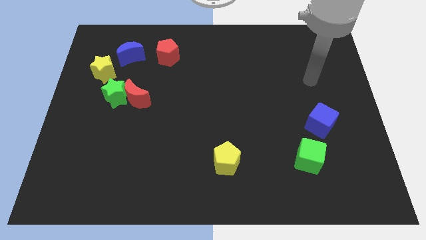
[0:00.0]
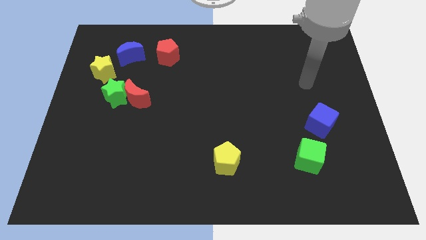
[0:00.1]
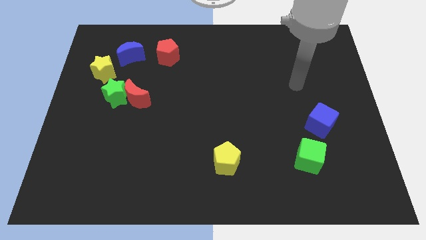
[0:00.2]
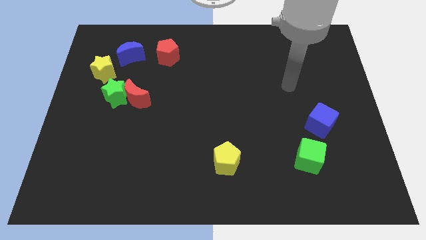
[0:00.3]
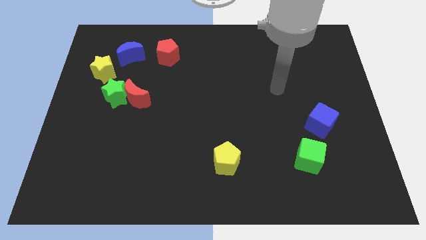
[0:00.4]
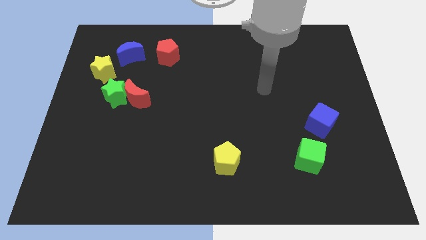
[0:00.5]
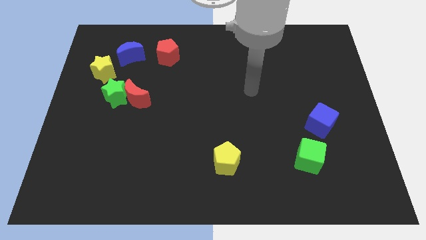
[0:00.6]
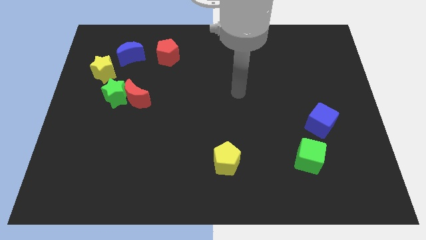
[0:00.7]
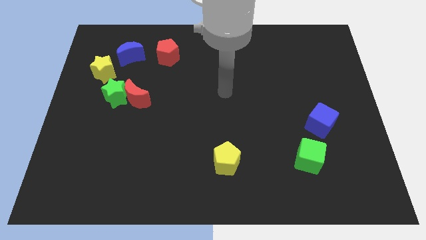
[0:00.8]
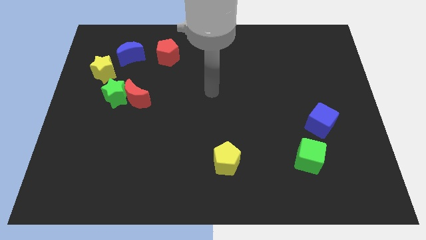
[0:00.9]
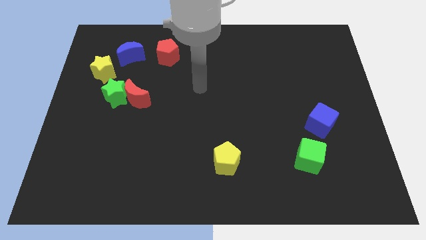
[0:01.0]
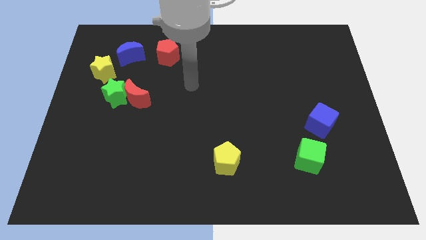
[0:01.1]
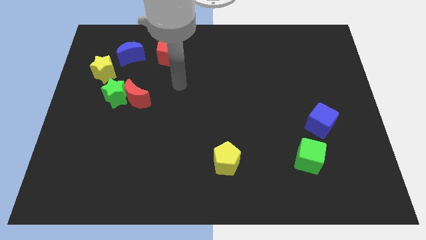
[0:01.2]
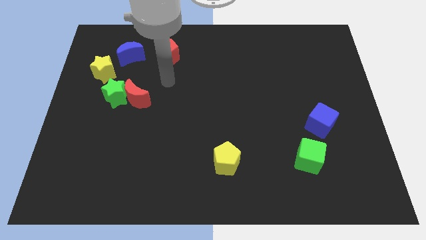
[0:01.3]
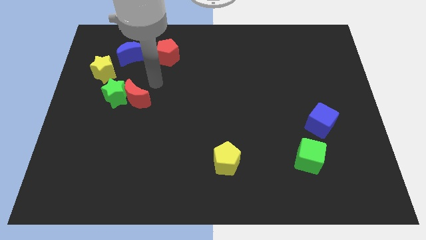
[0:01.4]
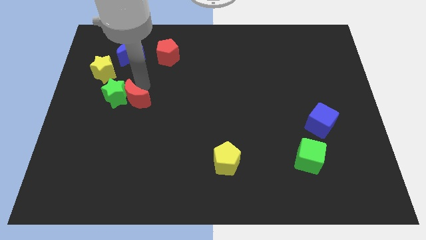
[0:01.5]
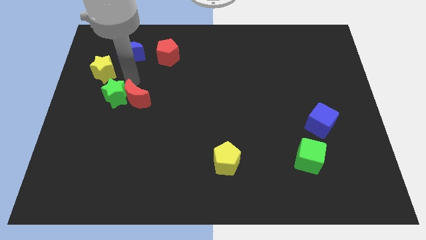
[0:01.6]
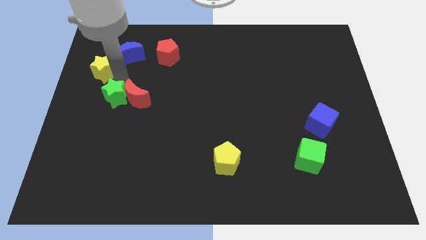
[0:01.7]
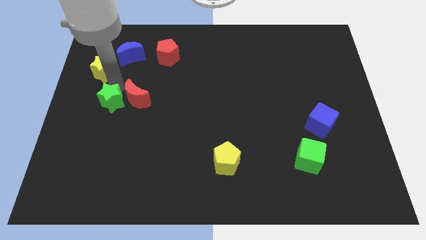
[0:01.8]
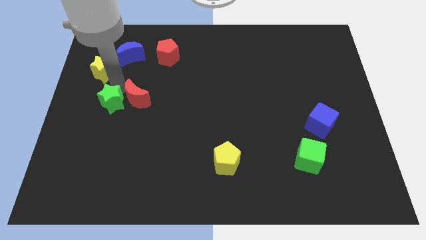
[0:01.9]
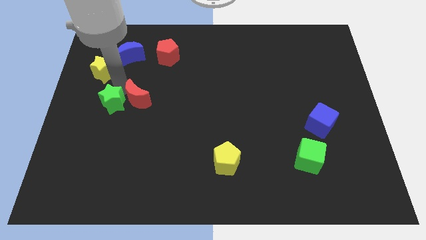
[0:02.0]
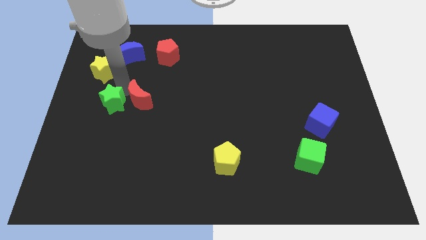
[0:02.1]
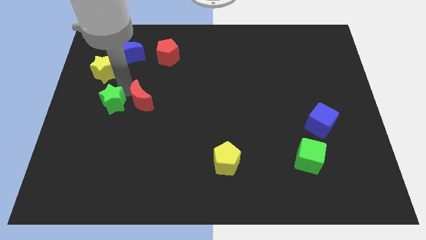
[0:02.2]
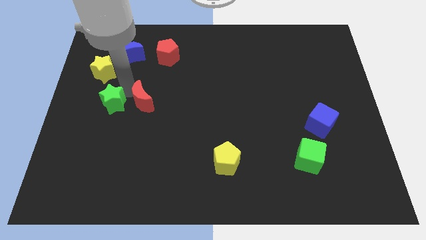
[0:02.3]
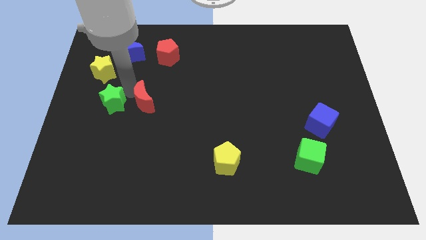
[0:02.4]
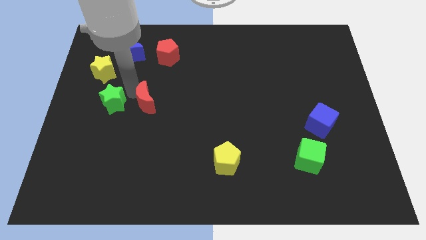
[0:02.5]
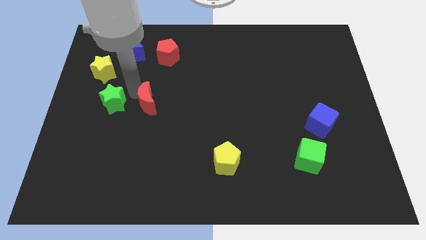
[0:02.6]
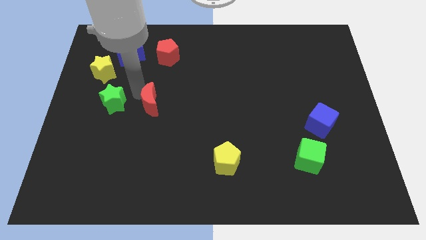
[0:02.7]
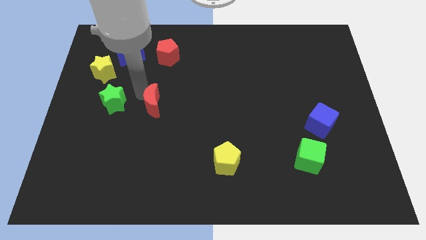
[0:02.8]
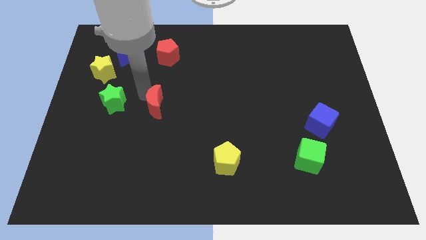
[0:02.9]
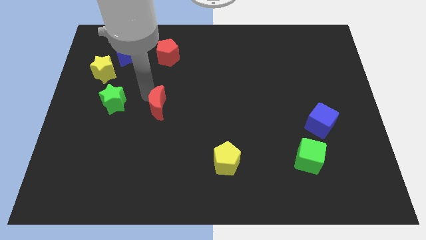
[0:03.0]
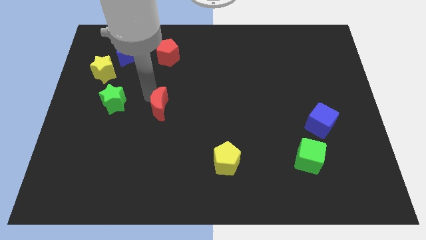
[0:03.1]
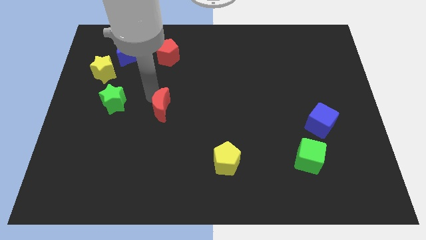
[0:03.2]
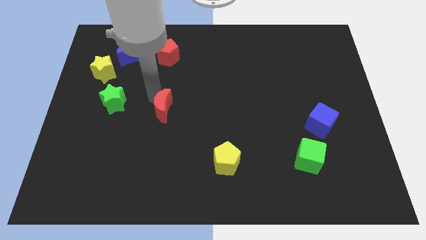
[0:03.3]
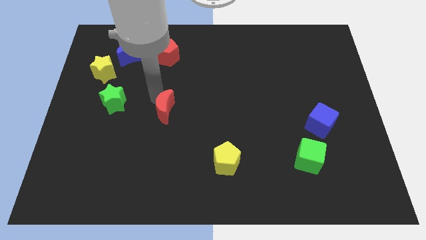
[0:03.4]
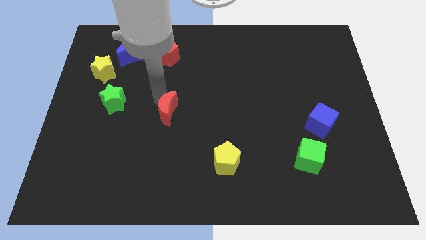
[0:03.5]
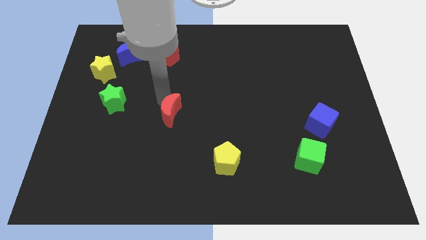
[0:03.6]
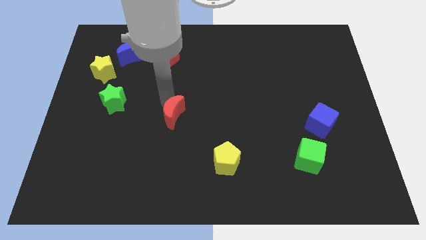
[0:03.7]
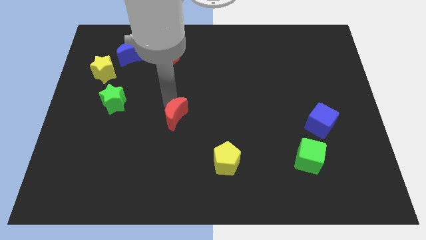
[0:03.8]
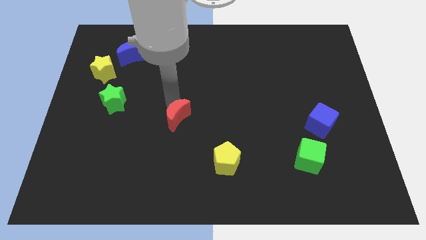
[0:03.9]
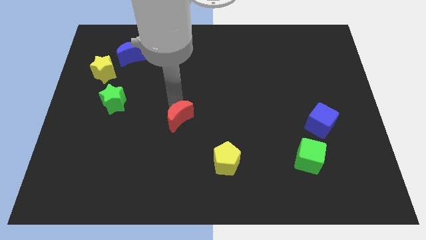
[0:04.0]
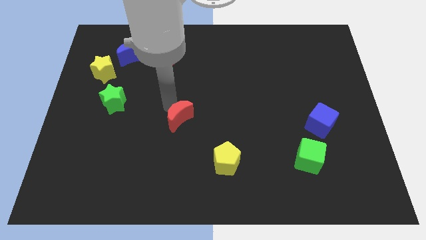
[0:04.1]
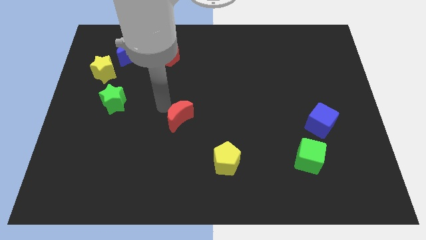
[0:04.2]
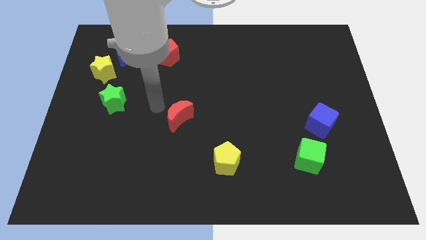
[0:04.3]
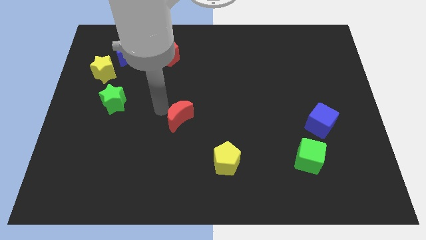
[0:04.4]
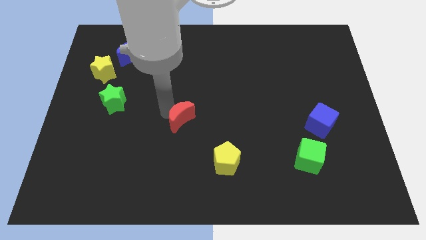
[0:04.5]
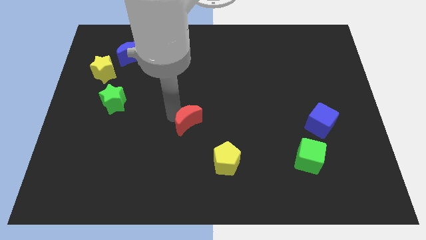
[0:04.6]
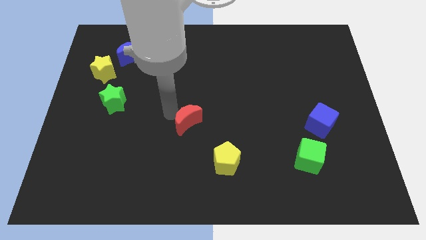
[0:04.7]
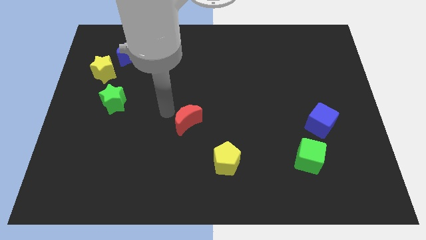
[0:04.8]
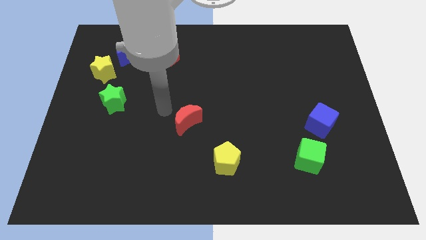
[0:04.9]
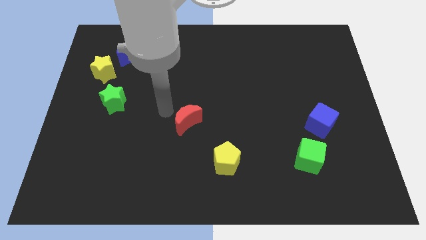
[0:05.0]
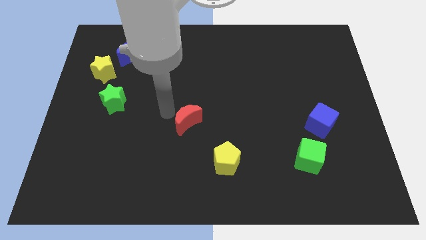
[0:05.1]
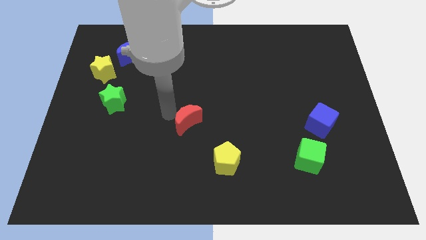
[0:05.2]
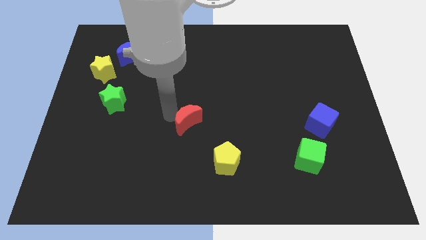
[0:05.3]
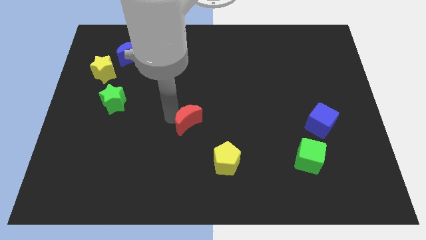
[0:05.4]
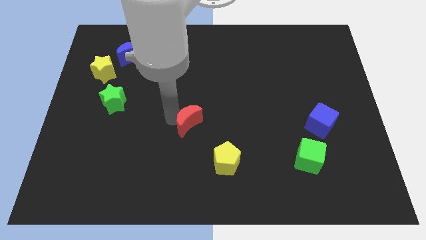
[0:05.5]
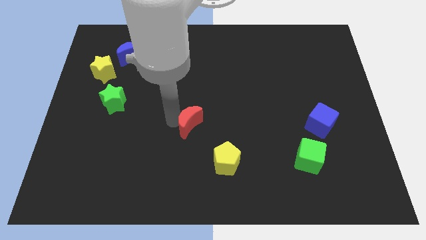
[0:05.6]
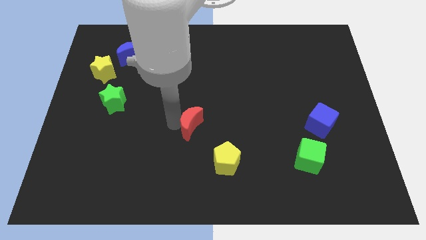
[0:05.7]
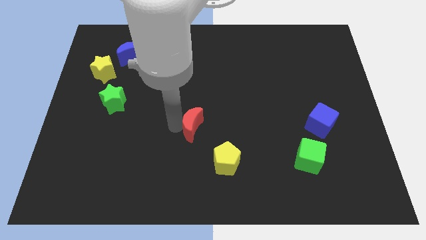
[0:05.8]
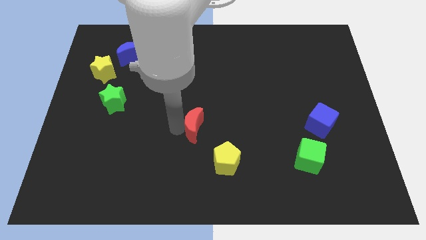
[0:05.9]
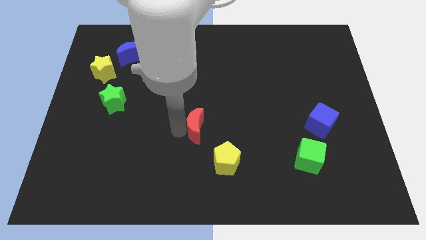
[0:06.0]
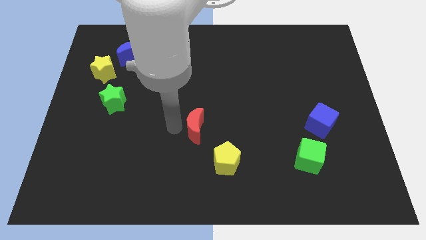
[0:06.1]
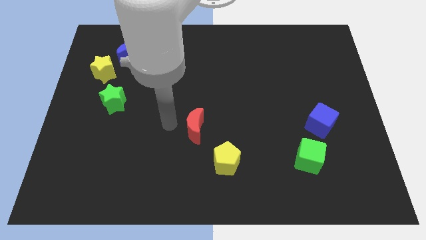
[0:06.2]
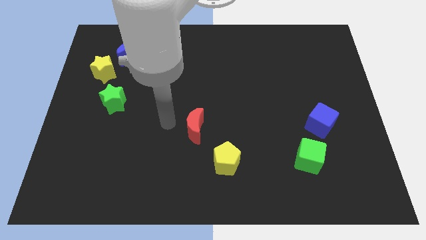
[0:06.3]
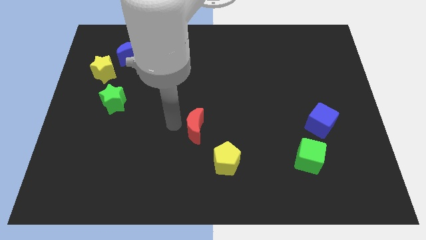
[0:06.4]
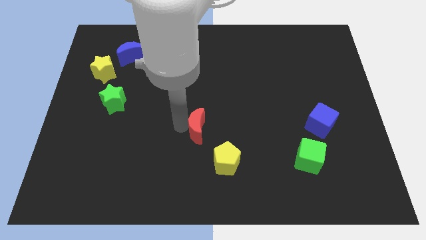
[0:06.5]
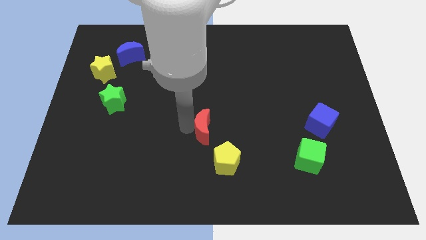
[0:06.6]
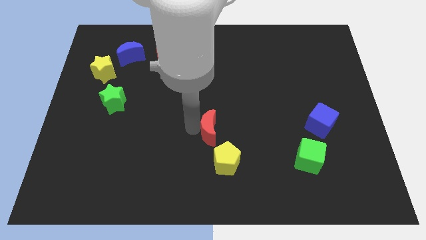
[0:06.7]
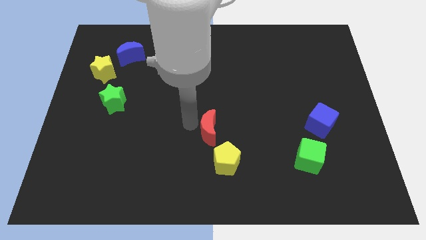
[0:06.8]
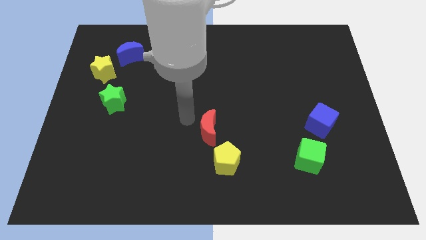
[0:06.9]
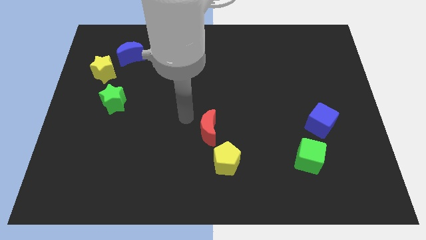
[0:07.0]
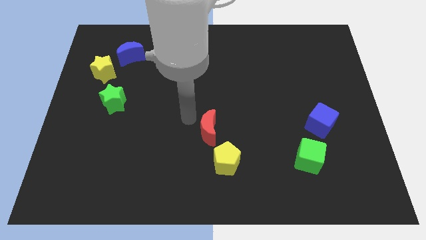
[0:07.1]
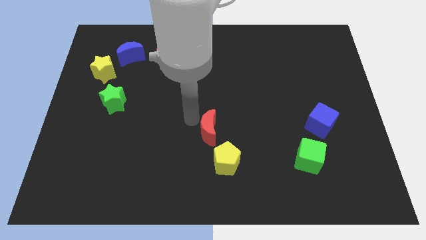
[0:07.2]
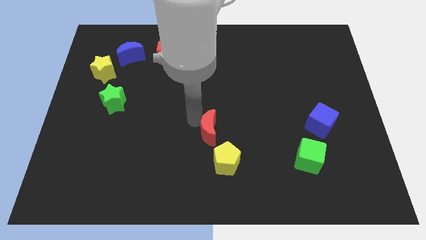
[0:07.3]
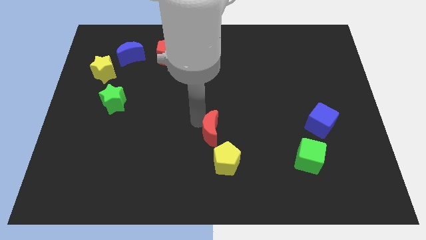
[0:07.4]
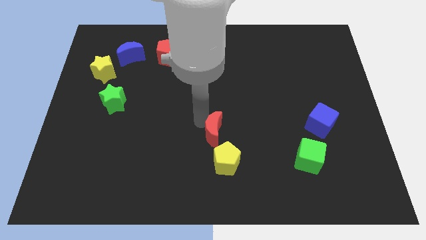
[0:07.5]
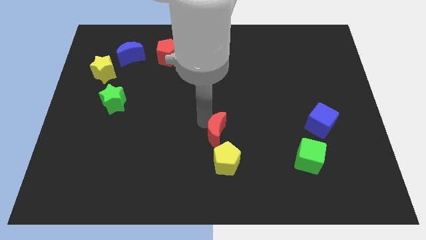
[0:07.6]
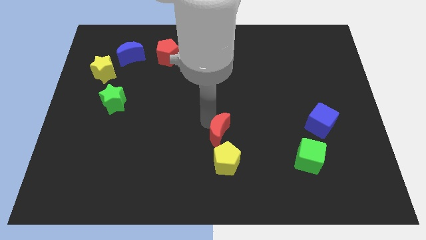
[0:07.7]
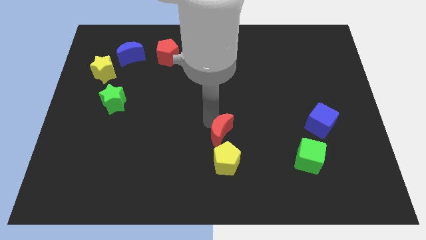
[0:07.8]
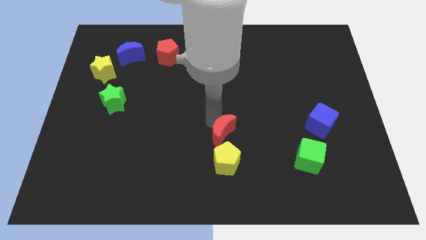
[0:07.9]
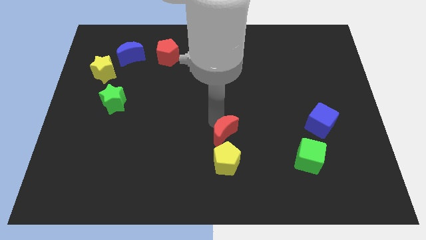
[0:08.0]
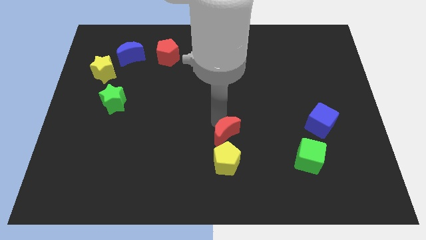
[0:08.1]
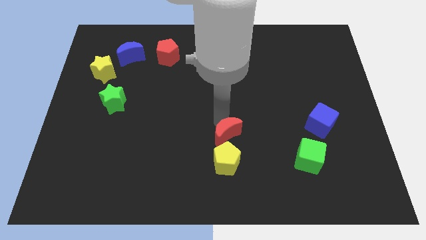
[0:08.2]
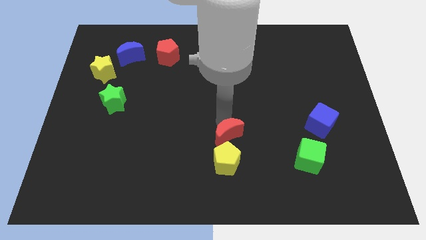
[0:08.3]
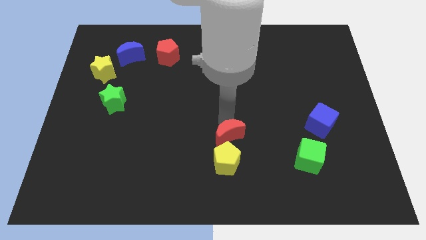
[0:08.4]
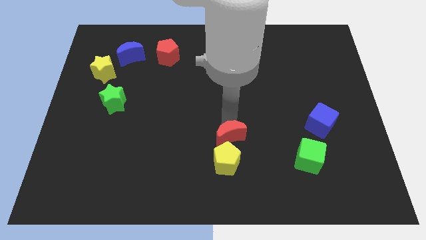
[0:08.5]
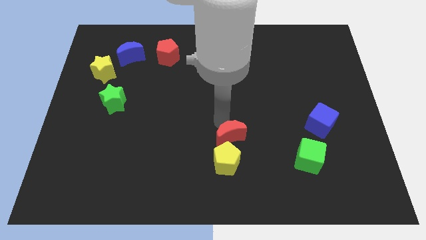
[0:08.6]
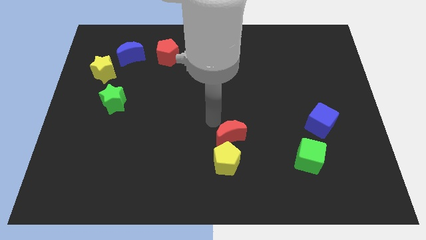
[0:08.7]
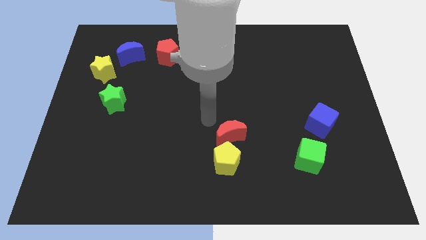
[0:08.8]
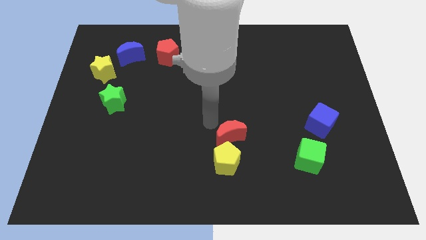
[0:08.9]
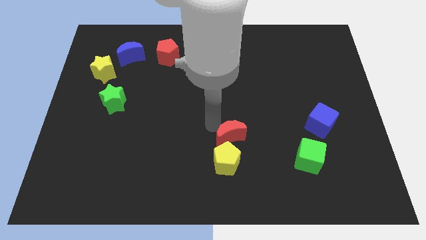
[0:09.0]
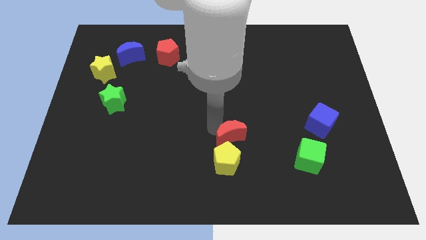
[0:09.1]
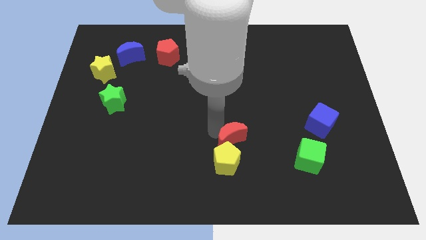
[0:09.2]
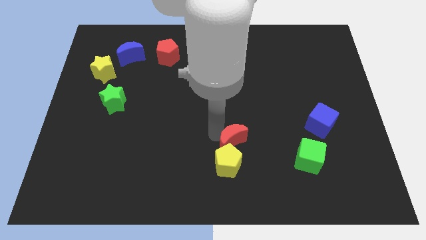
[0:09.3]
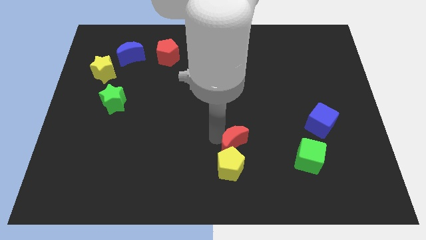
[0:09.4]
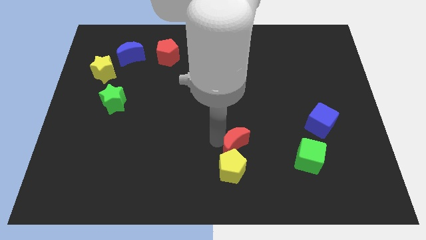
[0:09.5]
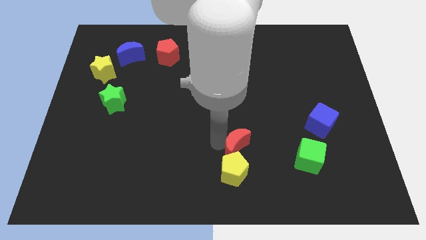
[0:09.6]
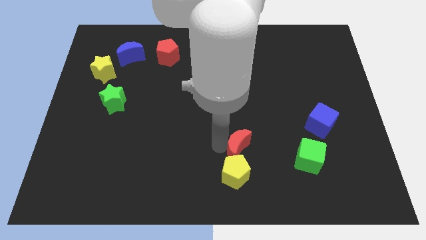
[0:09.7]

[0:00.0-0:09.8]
slide the red moon just left of the green cube
